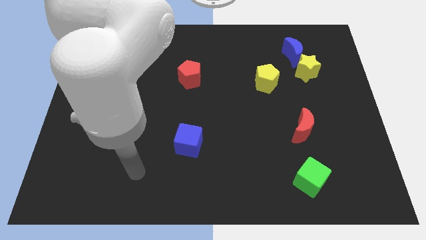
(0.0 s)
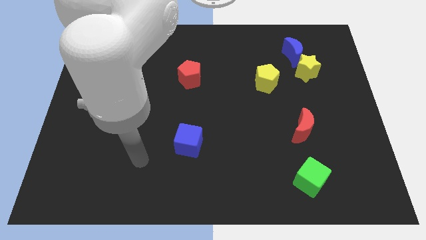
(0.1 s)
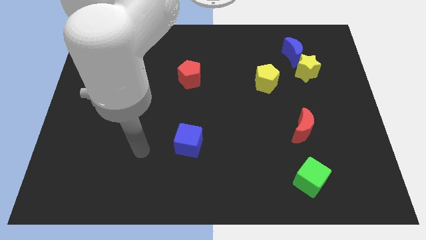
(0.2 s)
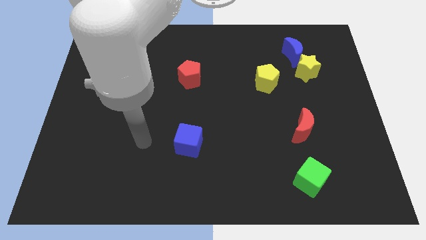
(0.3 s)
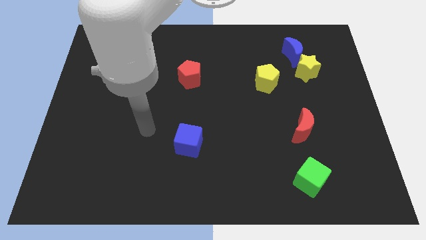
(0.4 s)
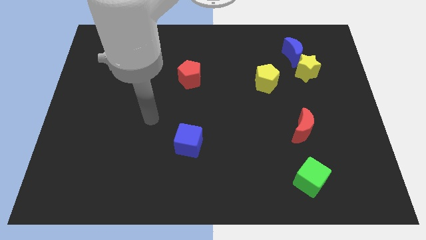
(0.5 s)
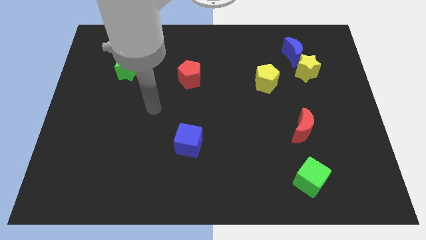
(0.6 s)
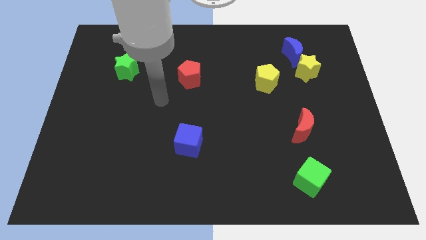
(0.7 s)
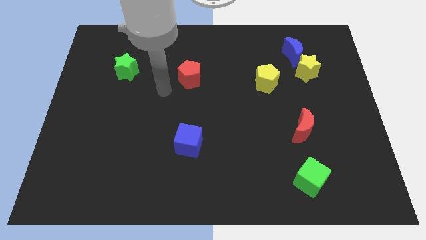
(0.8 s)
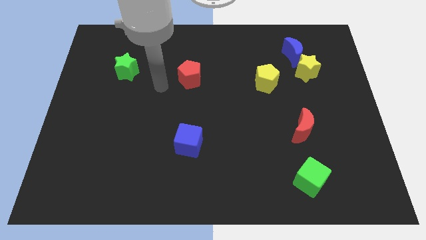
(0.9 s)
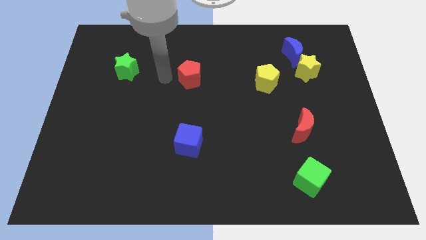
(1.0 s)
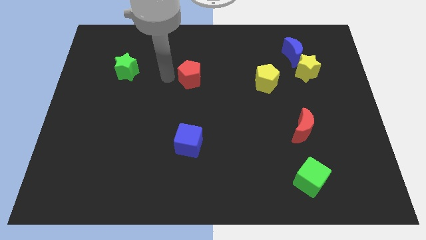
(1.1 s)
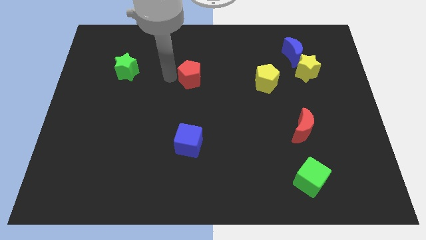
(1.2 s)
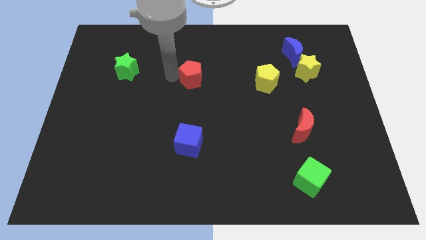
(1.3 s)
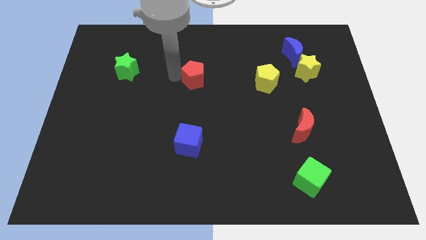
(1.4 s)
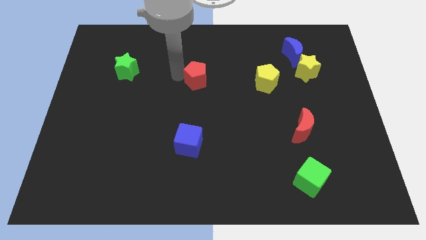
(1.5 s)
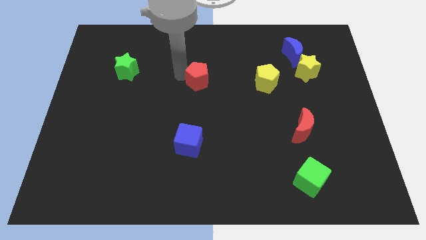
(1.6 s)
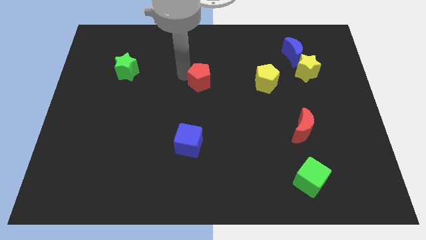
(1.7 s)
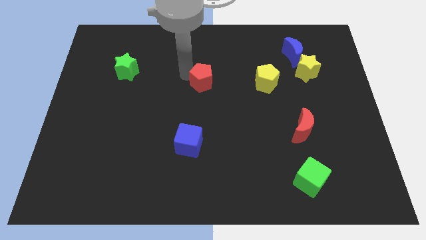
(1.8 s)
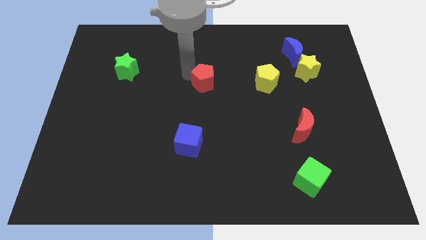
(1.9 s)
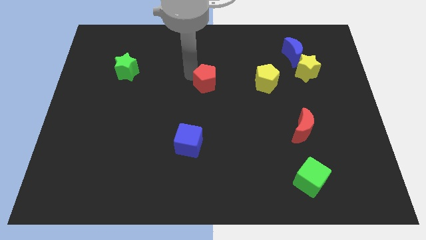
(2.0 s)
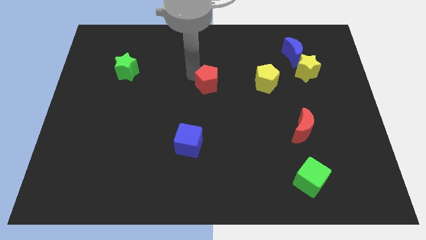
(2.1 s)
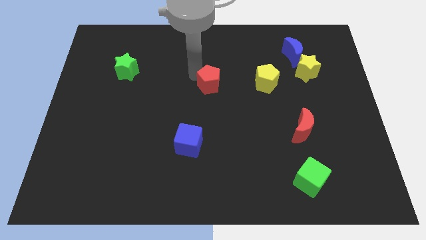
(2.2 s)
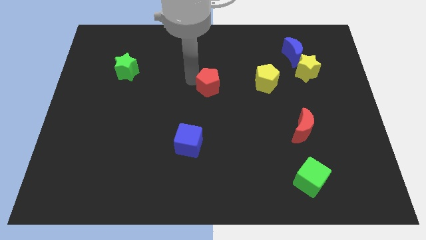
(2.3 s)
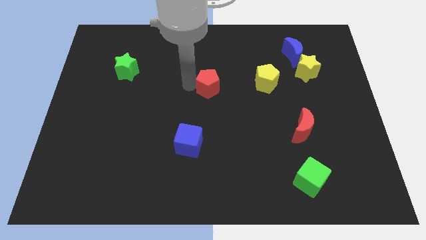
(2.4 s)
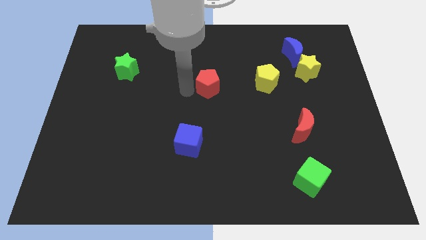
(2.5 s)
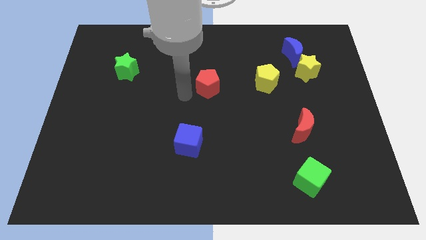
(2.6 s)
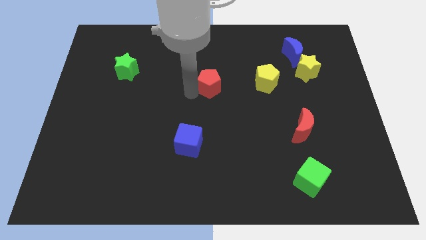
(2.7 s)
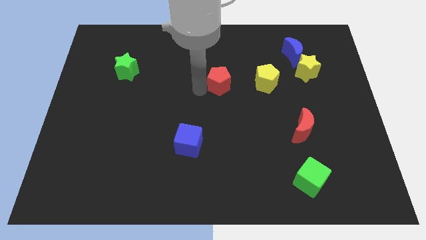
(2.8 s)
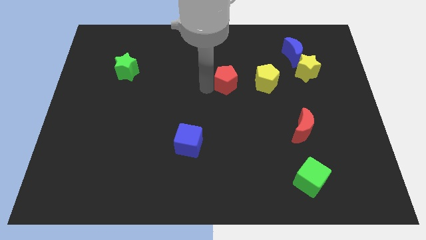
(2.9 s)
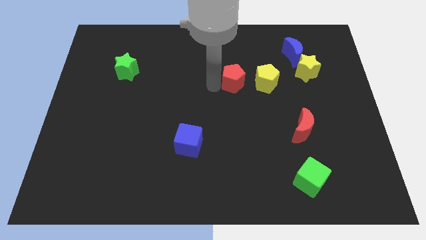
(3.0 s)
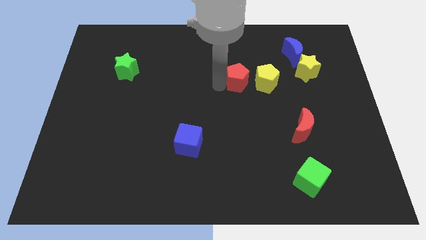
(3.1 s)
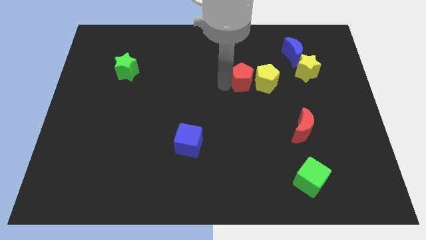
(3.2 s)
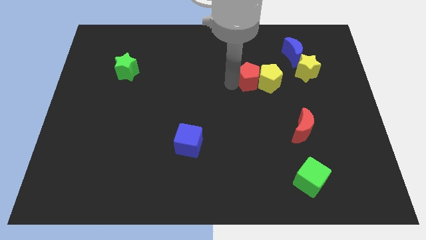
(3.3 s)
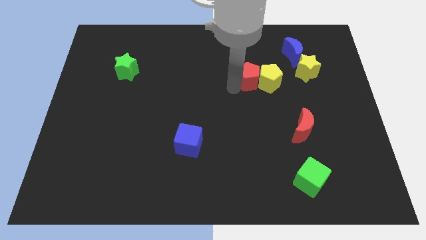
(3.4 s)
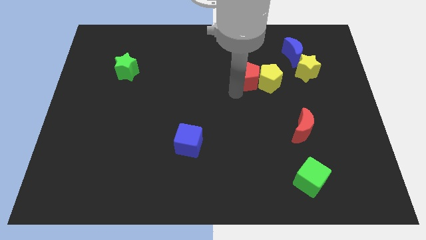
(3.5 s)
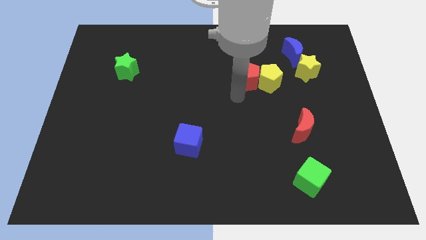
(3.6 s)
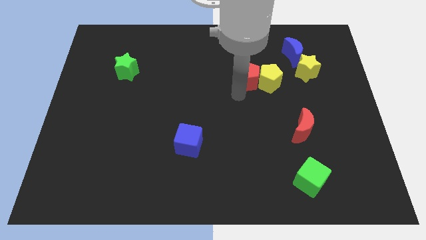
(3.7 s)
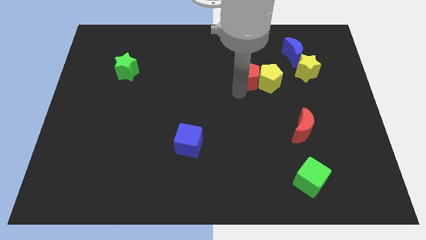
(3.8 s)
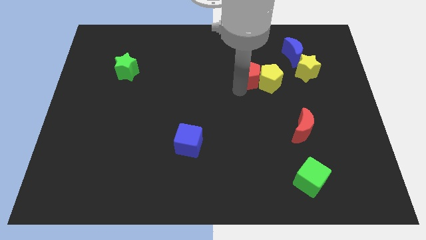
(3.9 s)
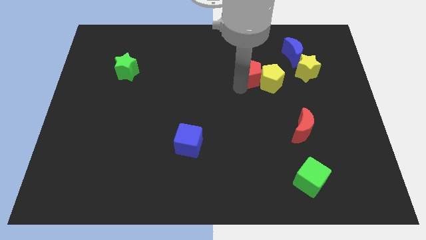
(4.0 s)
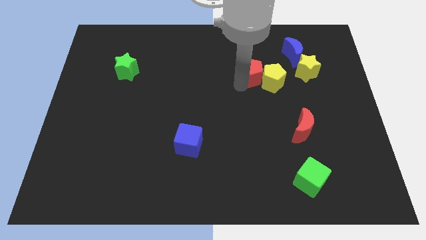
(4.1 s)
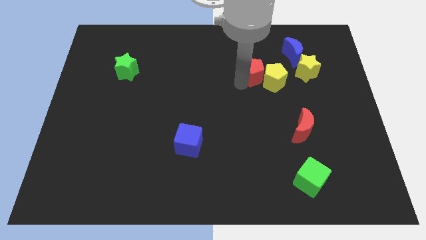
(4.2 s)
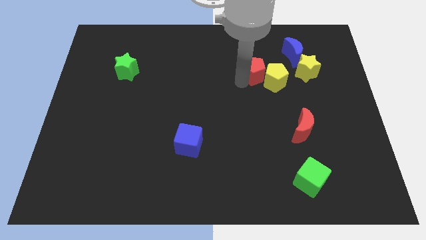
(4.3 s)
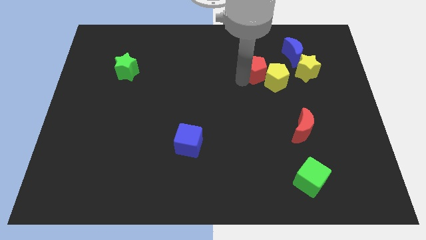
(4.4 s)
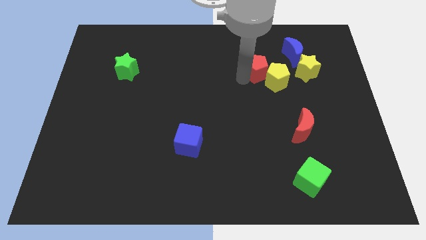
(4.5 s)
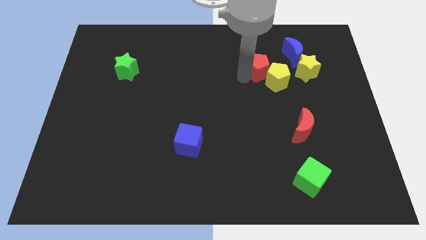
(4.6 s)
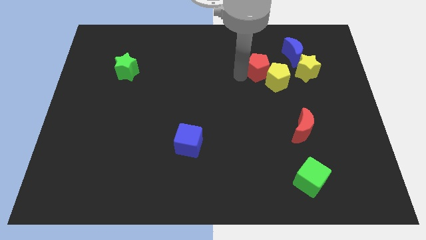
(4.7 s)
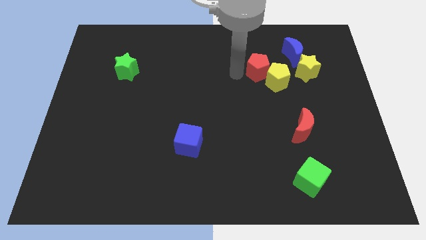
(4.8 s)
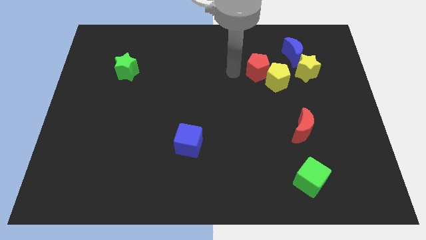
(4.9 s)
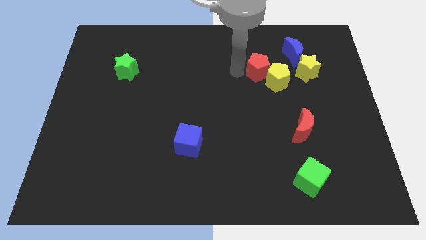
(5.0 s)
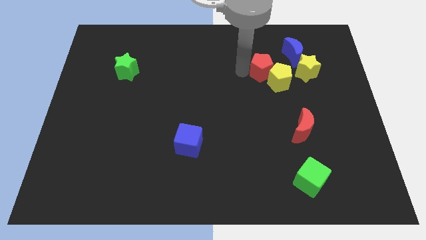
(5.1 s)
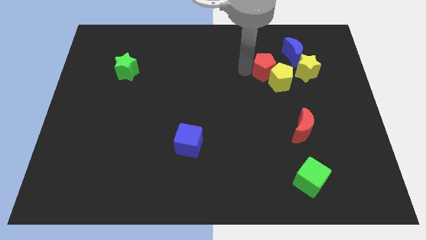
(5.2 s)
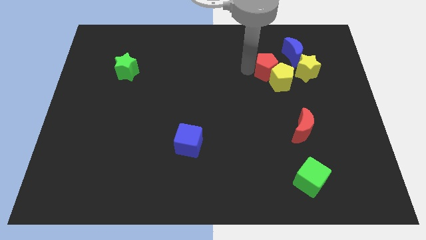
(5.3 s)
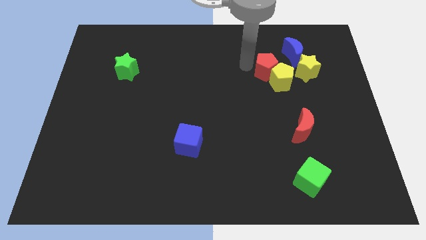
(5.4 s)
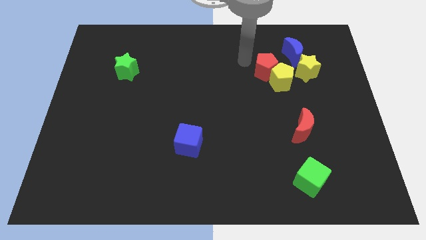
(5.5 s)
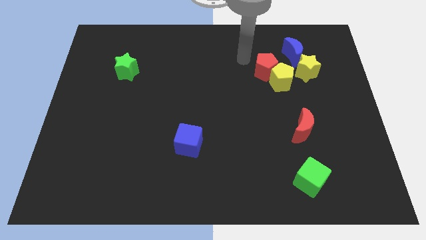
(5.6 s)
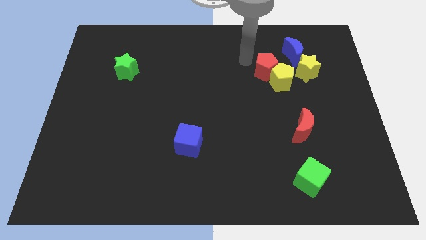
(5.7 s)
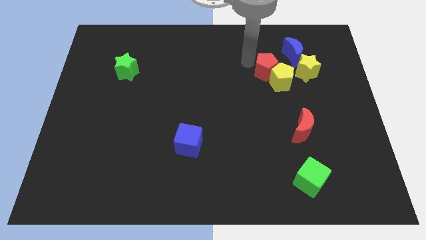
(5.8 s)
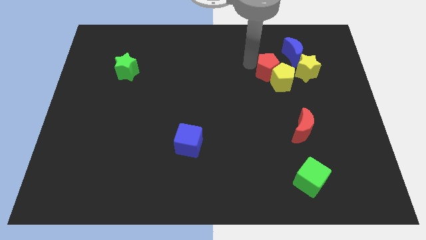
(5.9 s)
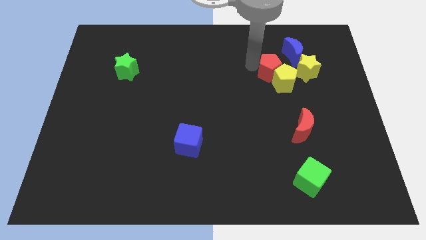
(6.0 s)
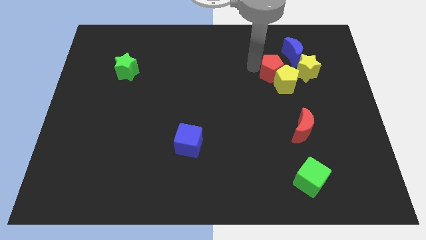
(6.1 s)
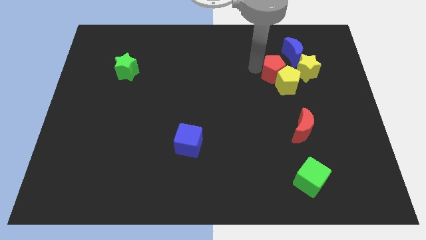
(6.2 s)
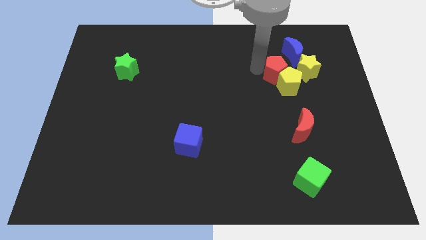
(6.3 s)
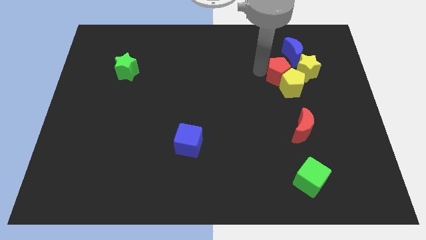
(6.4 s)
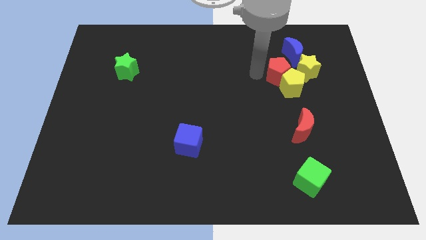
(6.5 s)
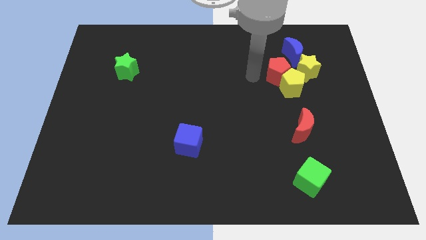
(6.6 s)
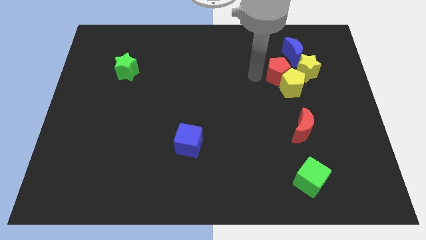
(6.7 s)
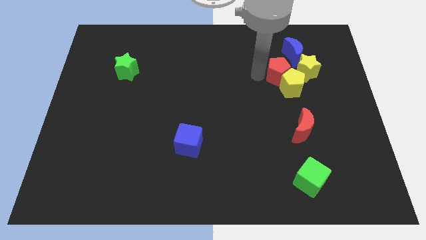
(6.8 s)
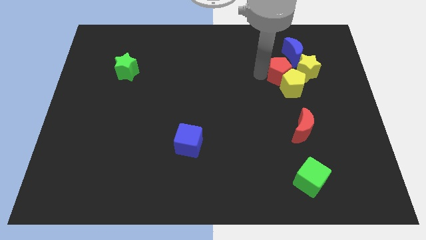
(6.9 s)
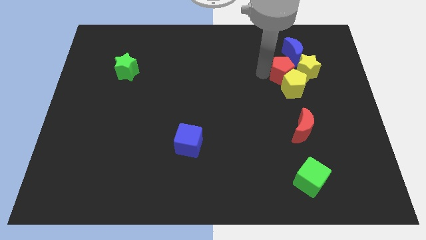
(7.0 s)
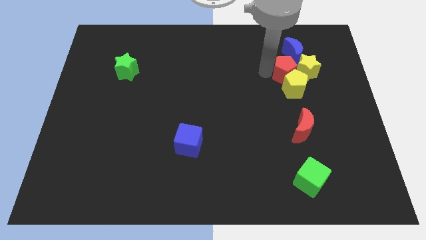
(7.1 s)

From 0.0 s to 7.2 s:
put the red pentagon towards the yellow star
